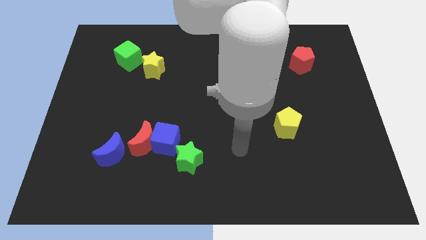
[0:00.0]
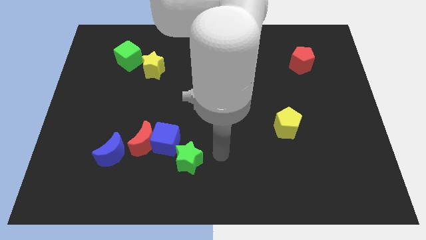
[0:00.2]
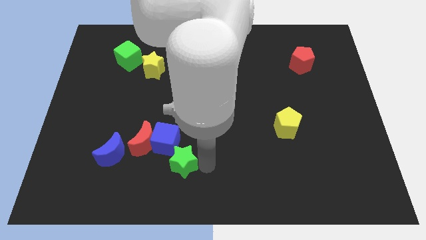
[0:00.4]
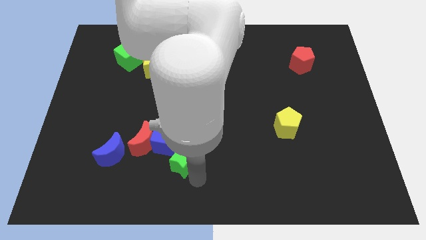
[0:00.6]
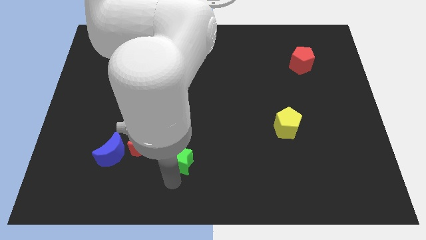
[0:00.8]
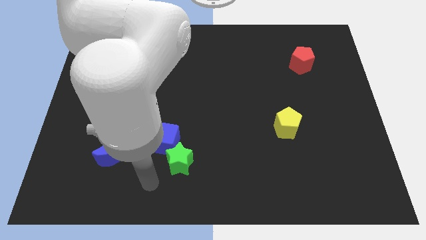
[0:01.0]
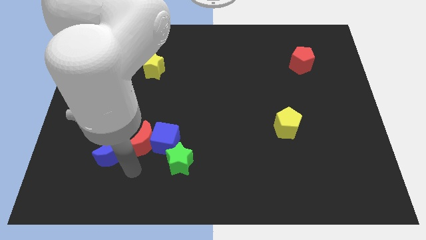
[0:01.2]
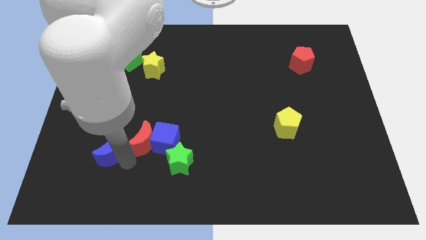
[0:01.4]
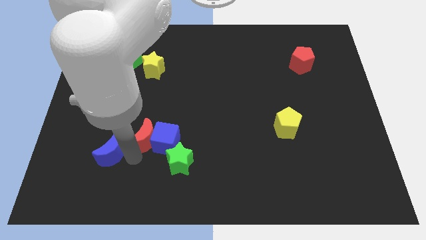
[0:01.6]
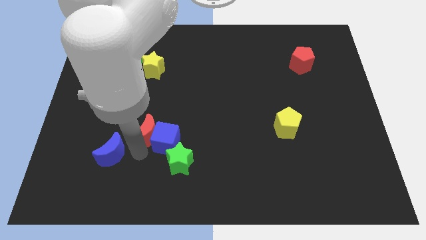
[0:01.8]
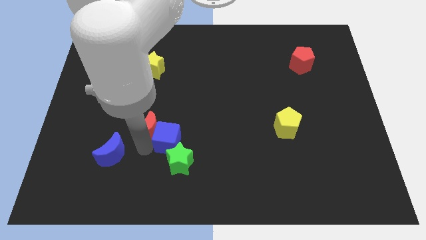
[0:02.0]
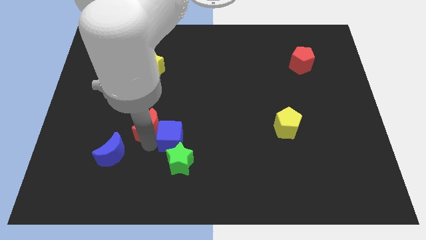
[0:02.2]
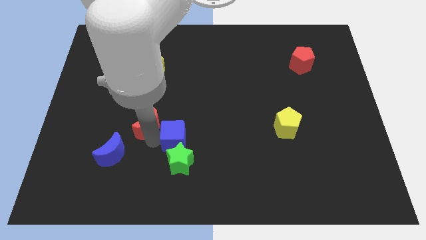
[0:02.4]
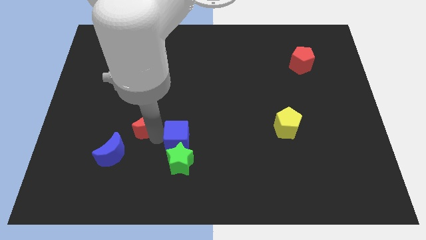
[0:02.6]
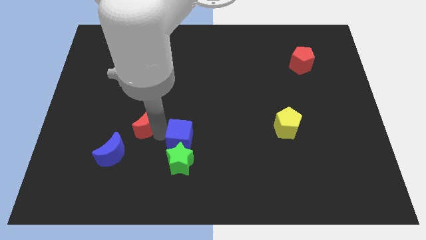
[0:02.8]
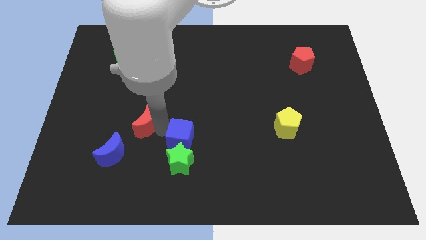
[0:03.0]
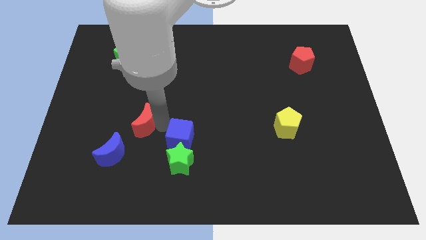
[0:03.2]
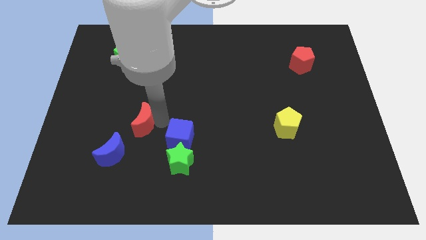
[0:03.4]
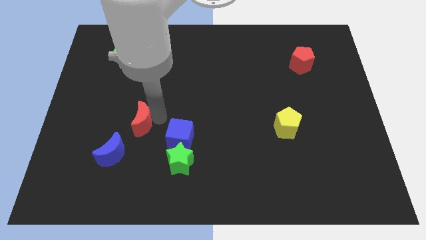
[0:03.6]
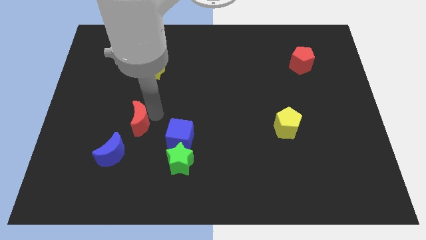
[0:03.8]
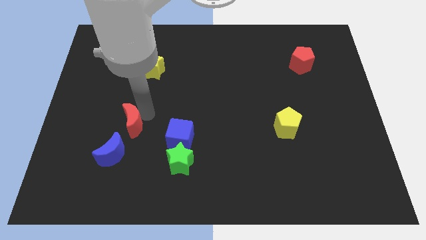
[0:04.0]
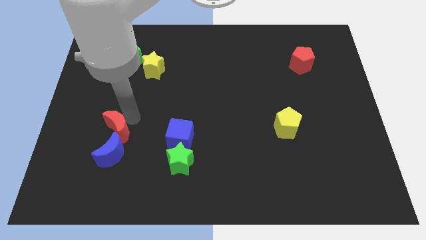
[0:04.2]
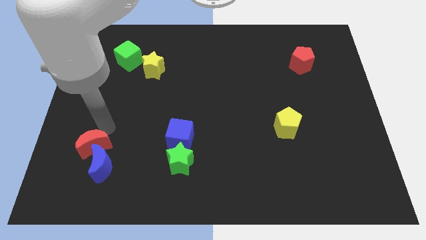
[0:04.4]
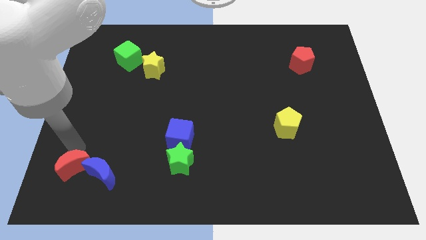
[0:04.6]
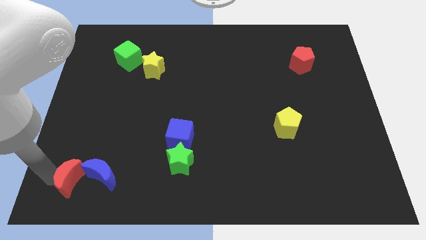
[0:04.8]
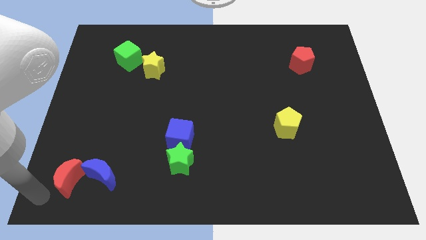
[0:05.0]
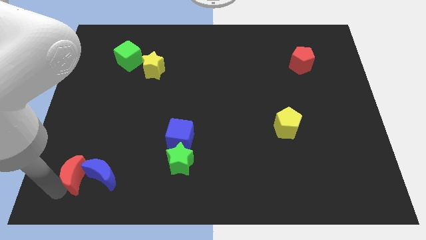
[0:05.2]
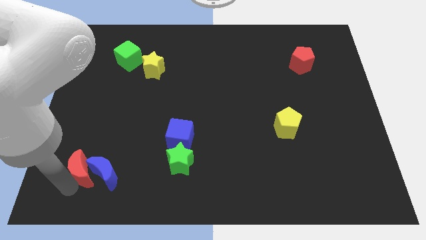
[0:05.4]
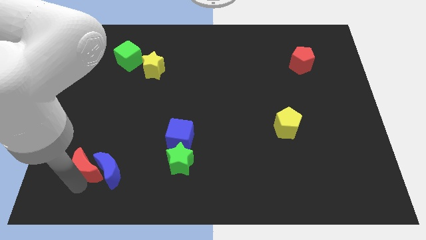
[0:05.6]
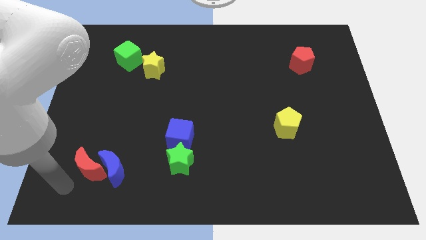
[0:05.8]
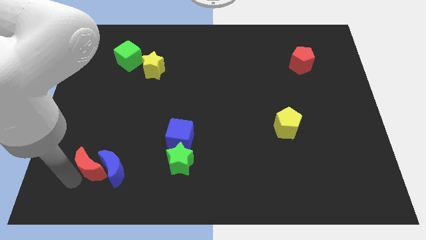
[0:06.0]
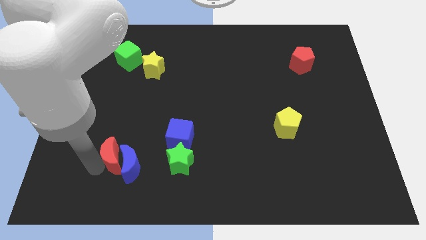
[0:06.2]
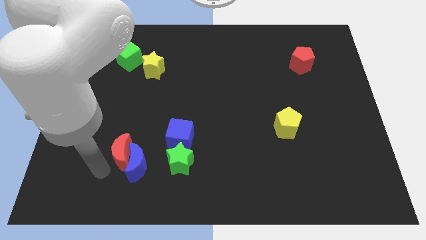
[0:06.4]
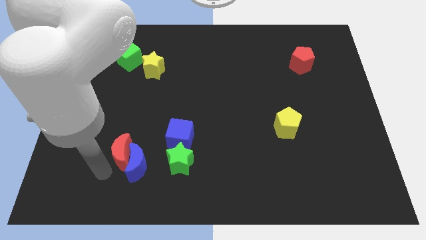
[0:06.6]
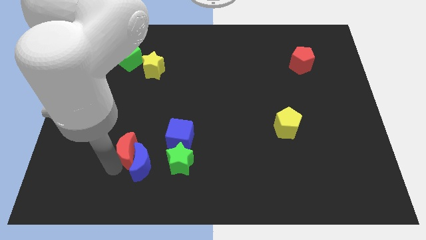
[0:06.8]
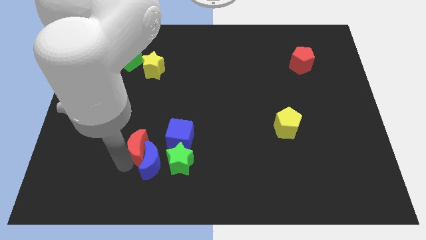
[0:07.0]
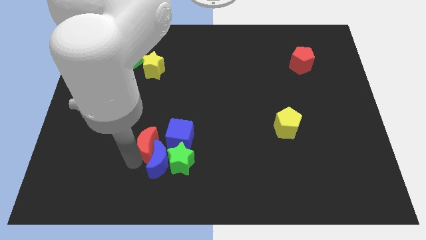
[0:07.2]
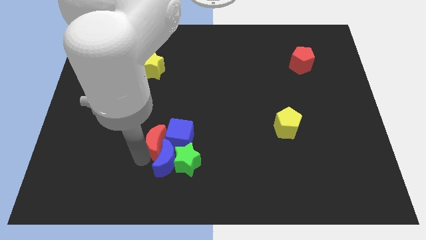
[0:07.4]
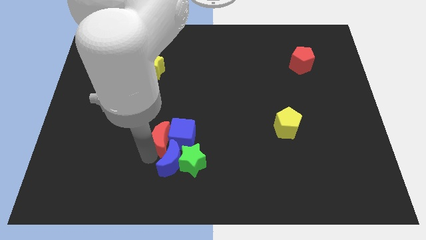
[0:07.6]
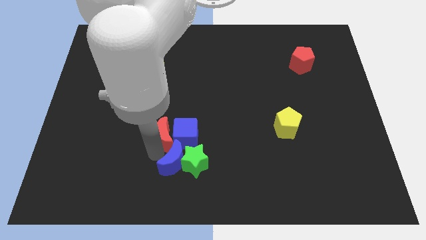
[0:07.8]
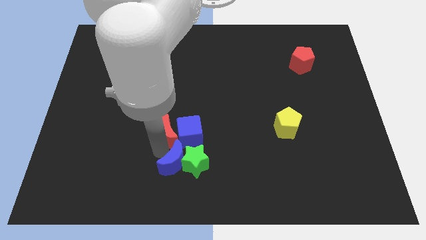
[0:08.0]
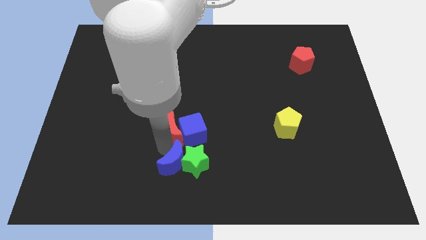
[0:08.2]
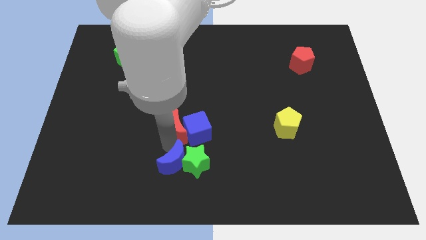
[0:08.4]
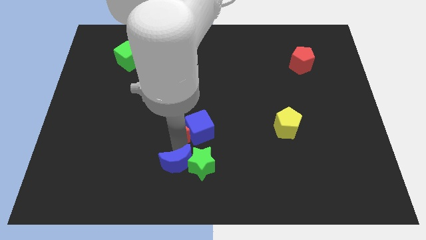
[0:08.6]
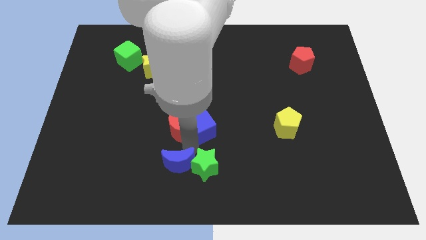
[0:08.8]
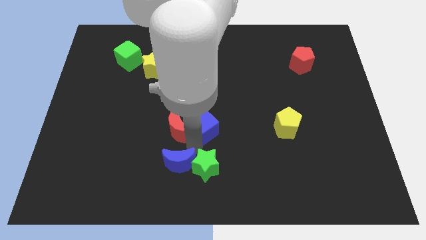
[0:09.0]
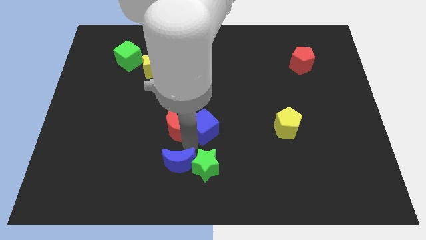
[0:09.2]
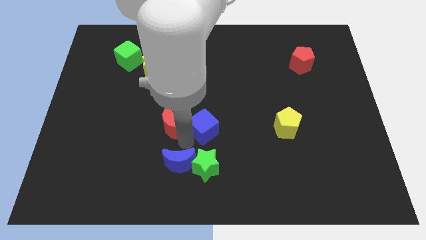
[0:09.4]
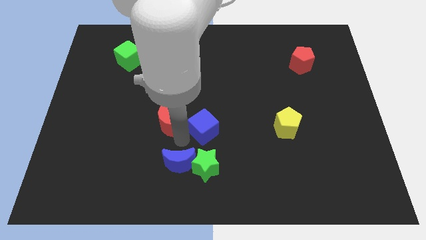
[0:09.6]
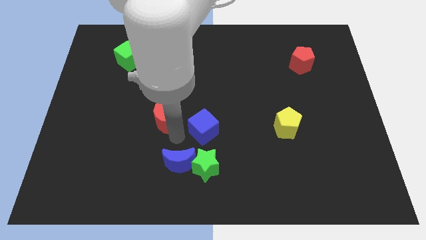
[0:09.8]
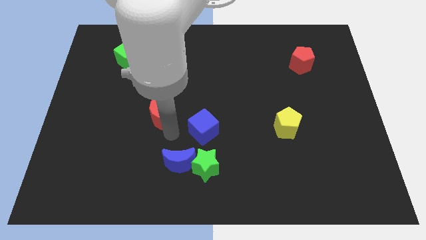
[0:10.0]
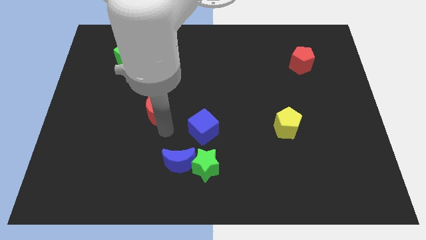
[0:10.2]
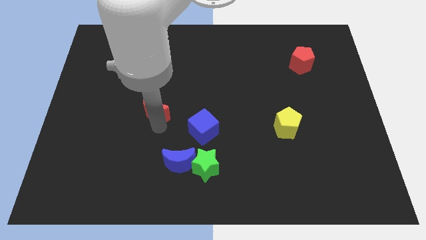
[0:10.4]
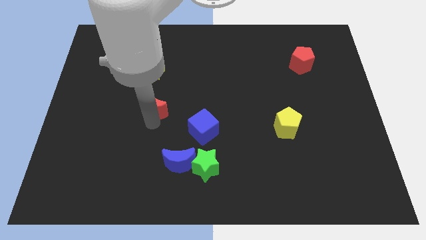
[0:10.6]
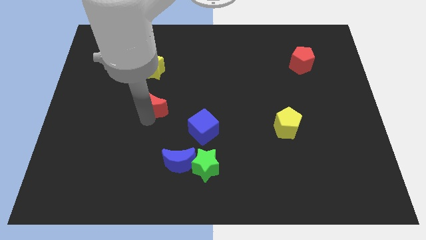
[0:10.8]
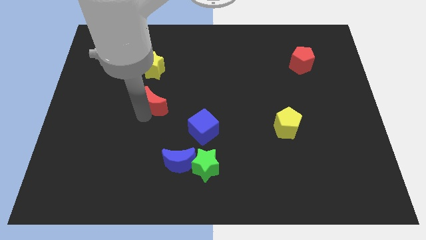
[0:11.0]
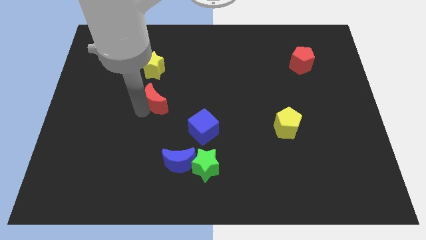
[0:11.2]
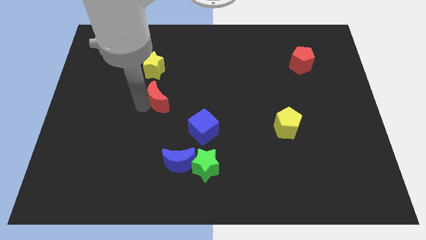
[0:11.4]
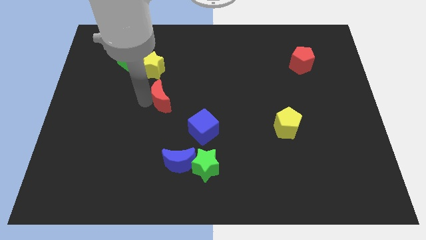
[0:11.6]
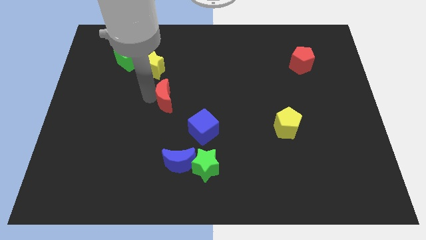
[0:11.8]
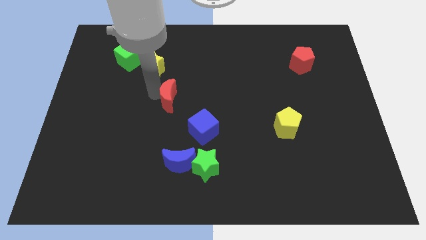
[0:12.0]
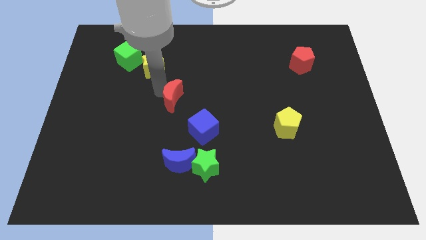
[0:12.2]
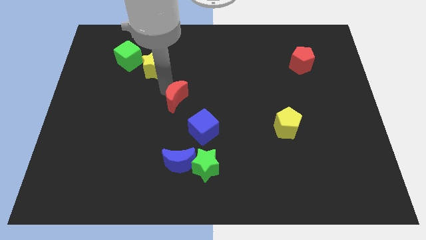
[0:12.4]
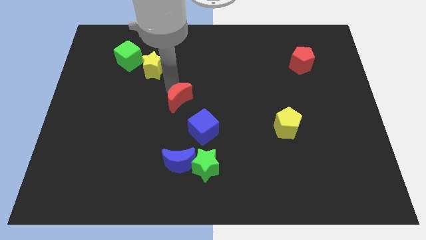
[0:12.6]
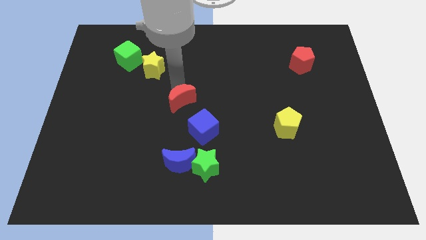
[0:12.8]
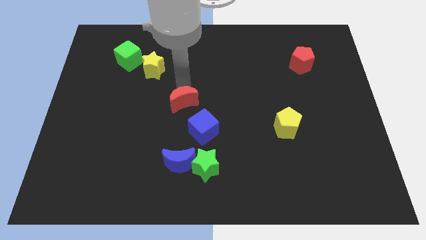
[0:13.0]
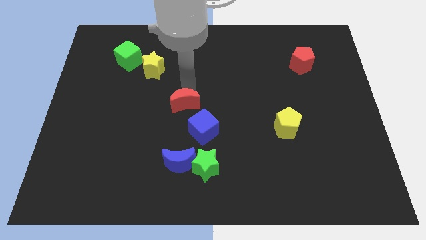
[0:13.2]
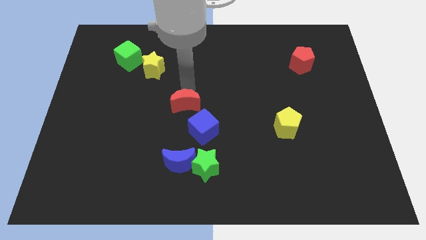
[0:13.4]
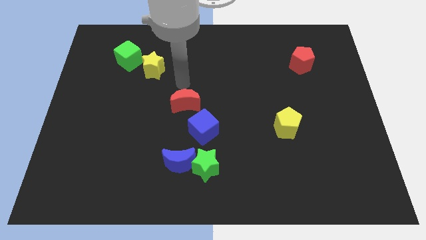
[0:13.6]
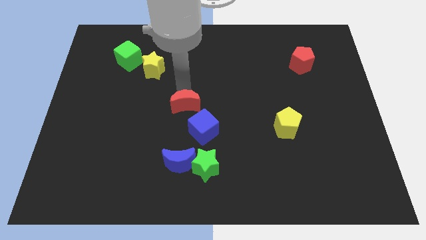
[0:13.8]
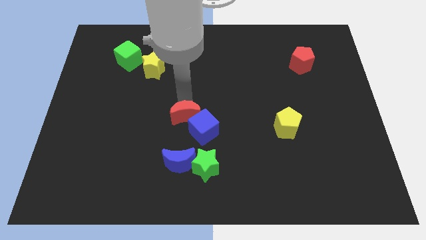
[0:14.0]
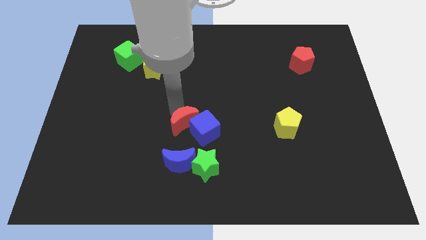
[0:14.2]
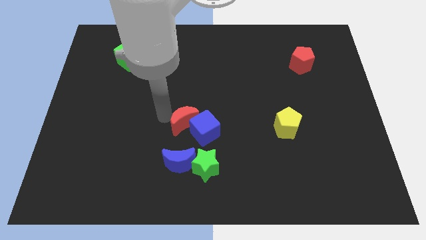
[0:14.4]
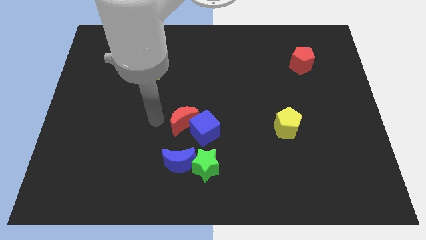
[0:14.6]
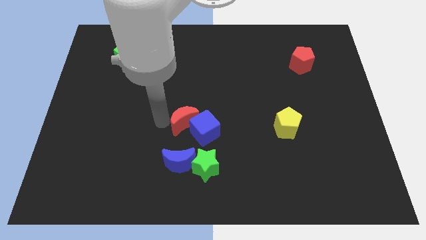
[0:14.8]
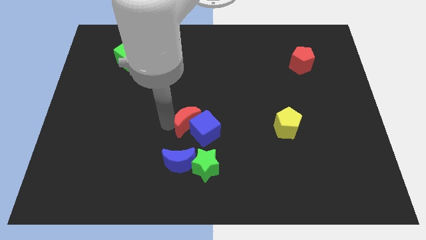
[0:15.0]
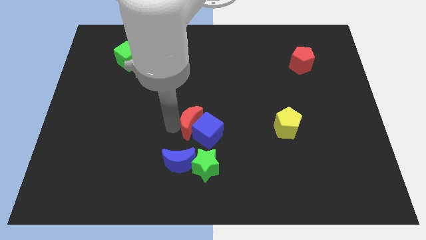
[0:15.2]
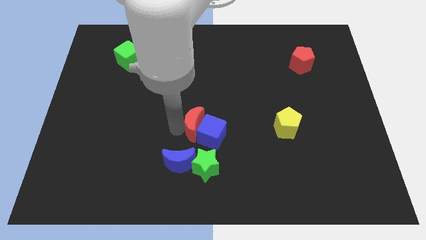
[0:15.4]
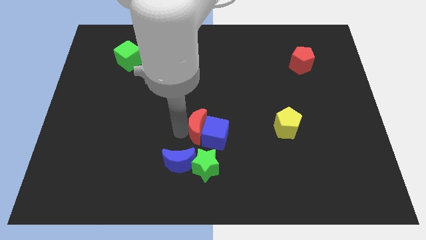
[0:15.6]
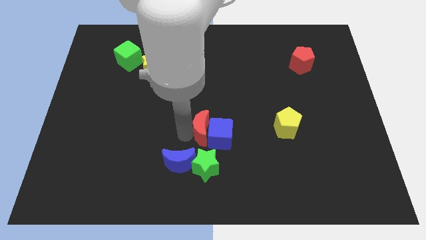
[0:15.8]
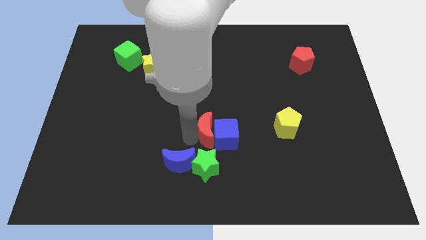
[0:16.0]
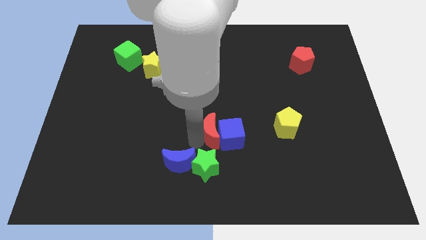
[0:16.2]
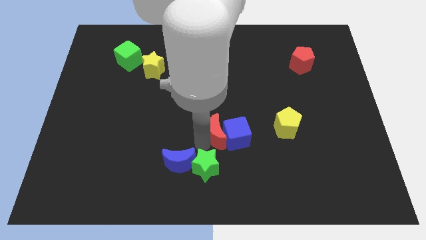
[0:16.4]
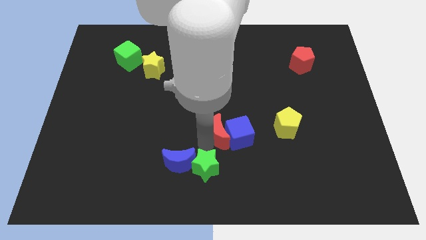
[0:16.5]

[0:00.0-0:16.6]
slide the red moon just left of the yellow pentagon
